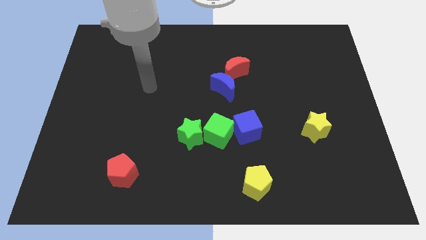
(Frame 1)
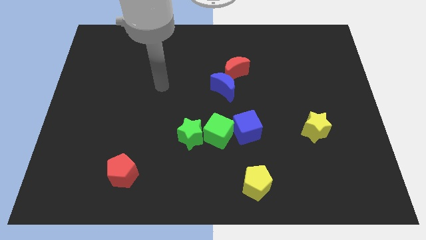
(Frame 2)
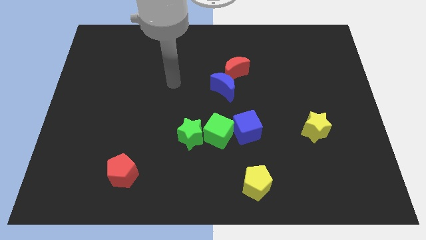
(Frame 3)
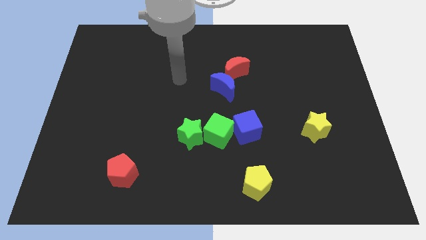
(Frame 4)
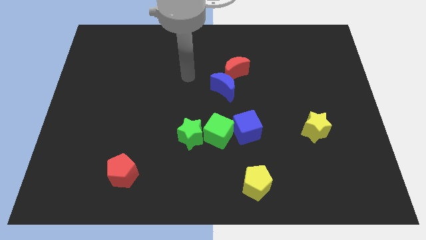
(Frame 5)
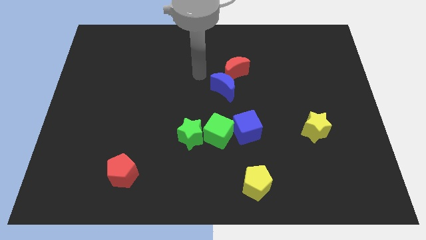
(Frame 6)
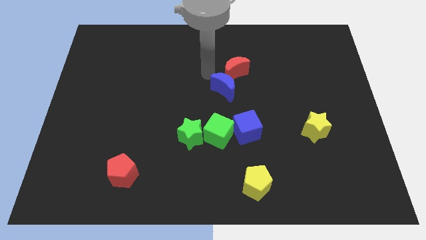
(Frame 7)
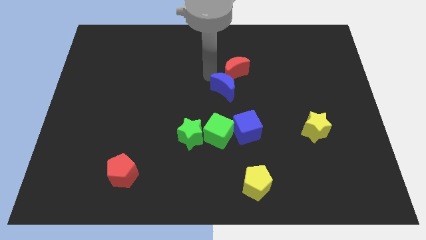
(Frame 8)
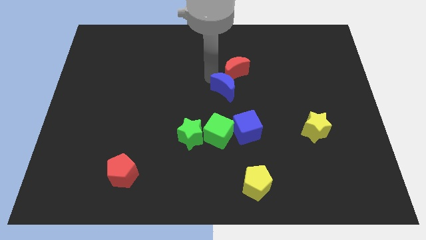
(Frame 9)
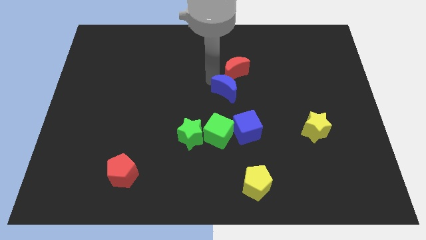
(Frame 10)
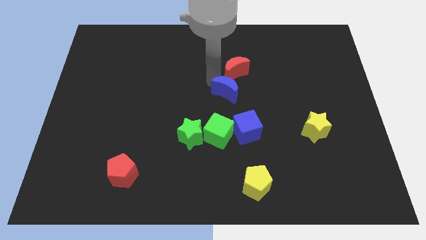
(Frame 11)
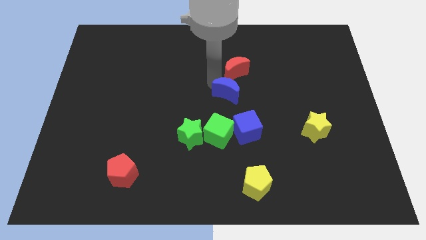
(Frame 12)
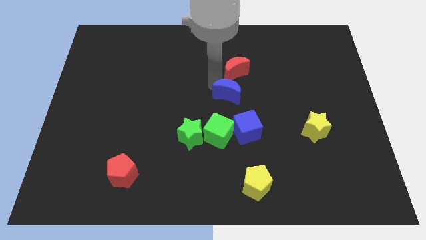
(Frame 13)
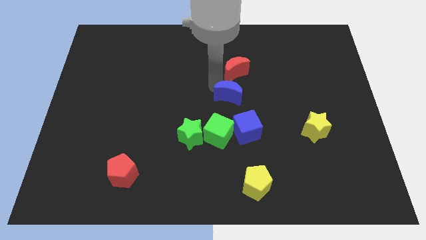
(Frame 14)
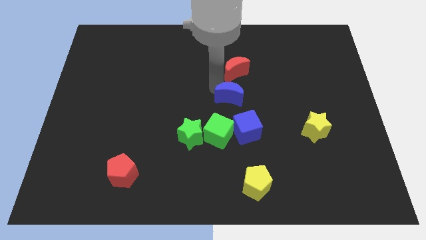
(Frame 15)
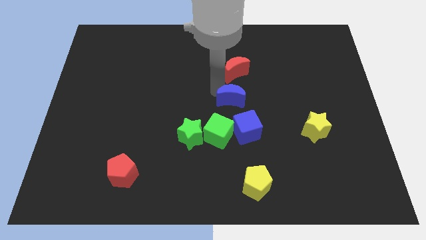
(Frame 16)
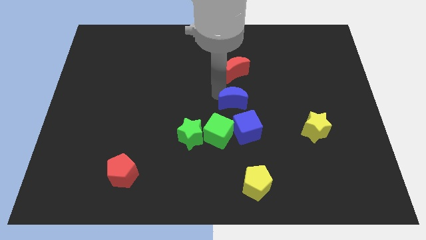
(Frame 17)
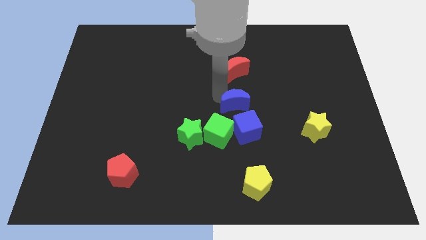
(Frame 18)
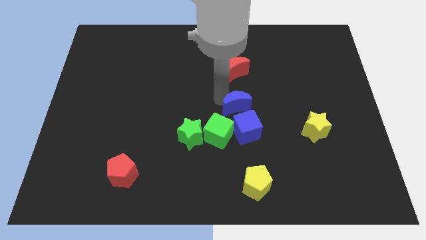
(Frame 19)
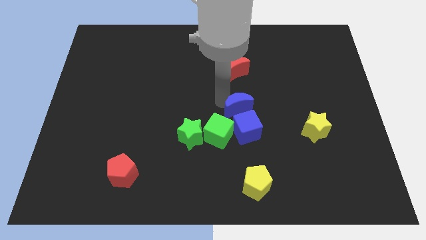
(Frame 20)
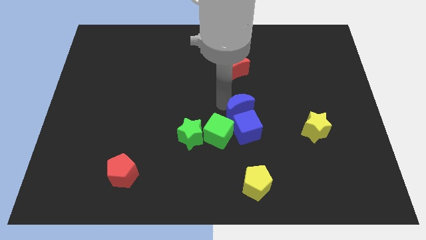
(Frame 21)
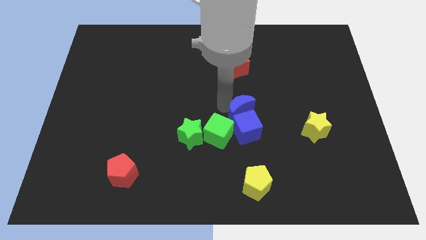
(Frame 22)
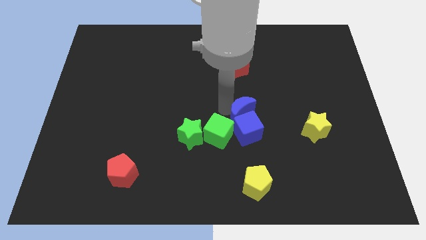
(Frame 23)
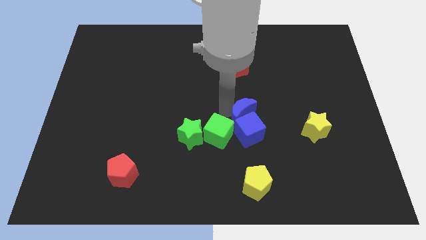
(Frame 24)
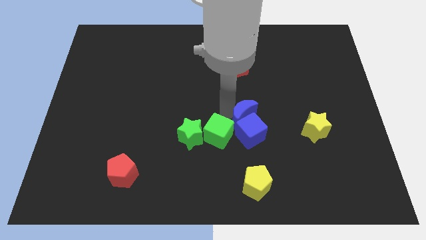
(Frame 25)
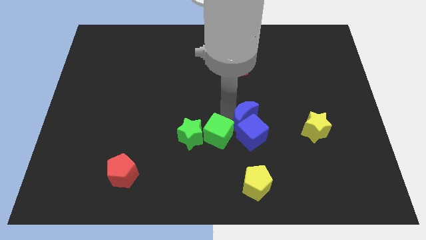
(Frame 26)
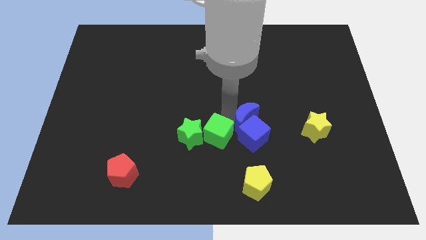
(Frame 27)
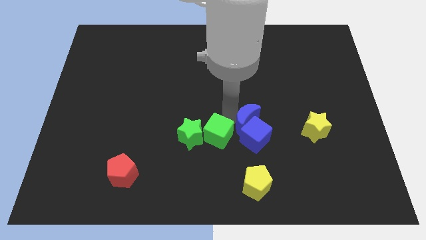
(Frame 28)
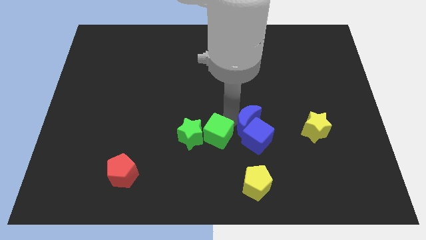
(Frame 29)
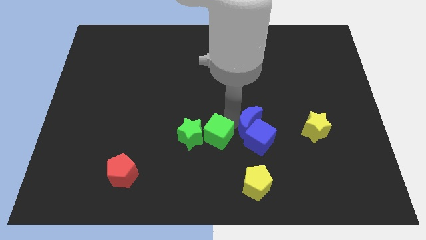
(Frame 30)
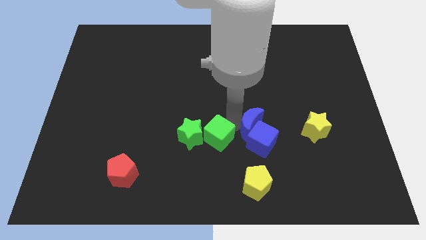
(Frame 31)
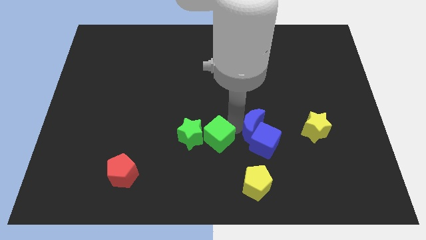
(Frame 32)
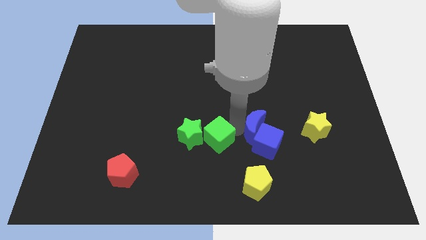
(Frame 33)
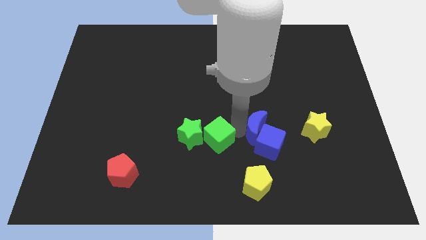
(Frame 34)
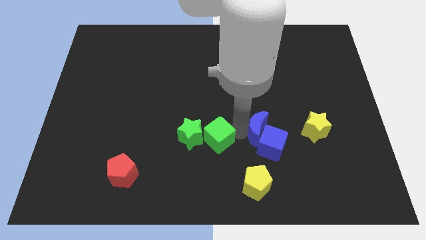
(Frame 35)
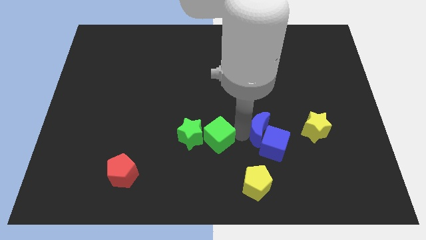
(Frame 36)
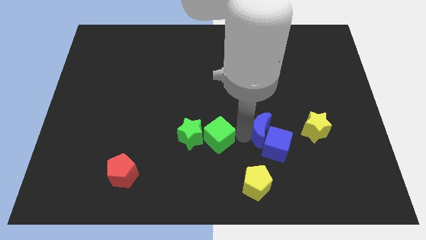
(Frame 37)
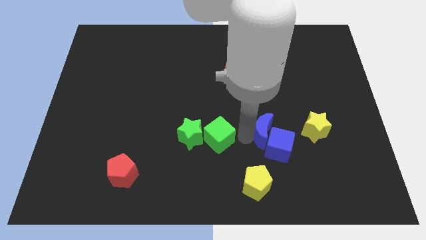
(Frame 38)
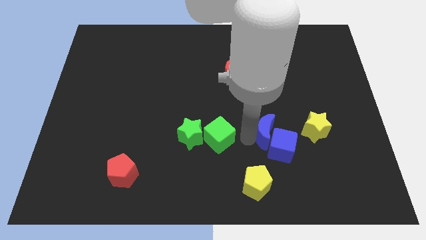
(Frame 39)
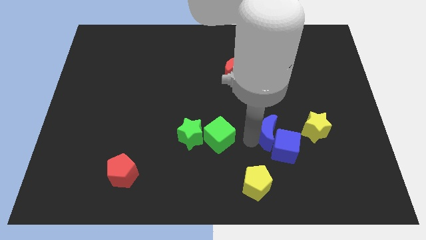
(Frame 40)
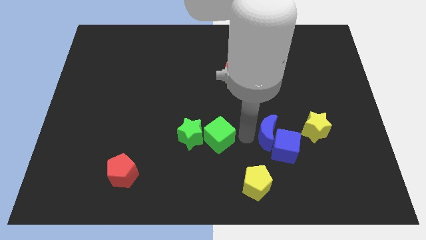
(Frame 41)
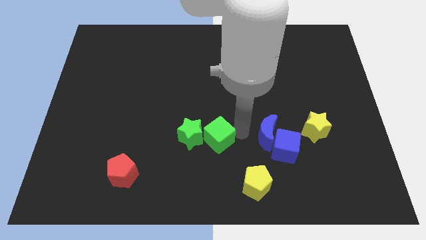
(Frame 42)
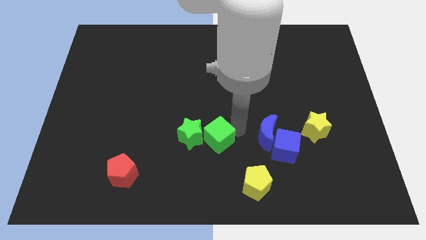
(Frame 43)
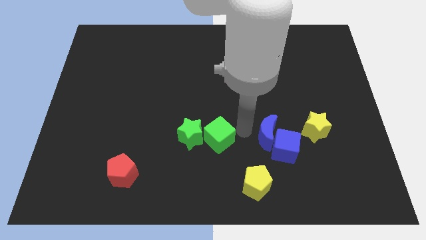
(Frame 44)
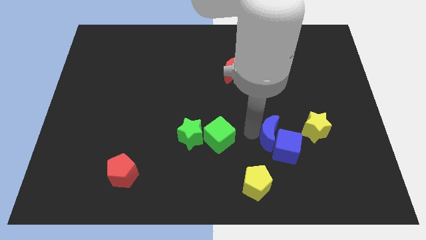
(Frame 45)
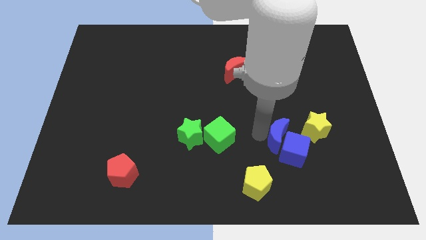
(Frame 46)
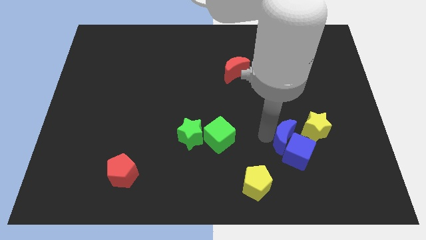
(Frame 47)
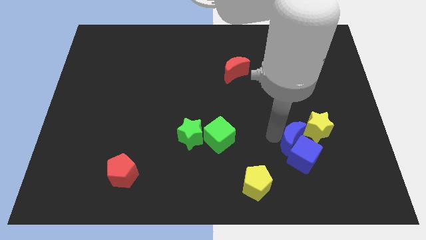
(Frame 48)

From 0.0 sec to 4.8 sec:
push the blue moon diagonally down and to the right

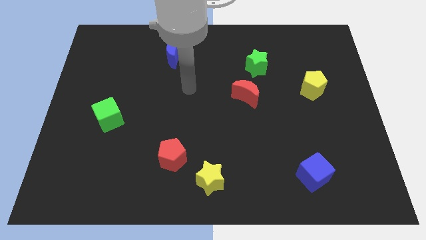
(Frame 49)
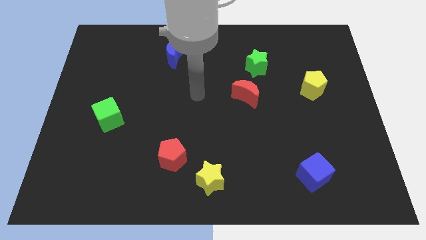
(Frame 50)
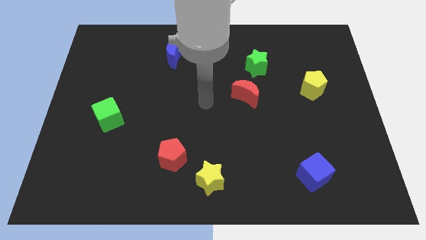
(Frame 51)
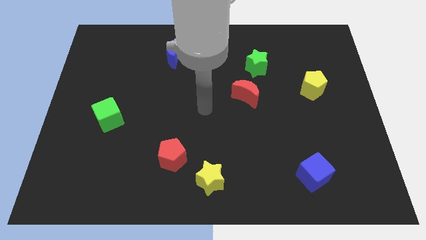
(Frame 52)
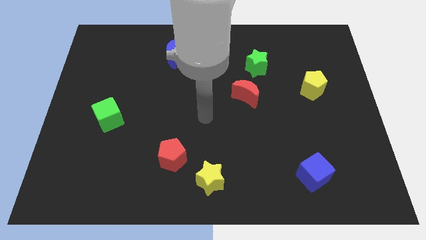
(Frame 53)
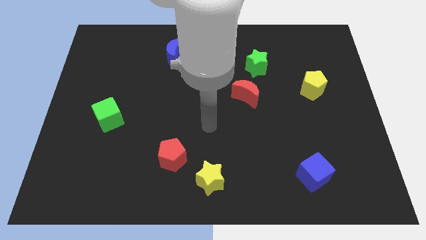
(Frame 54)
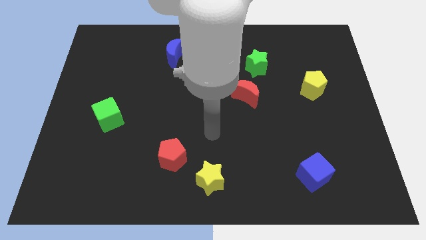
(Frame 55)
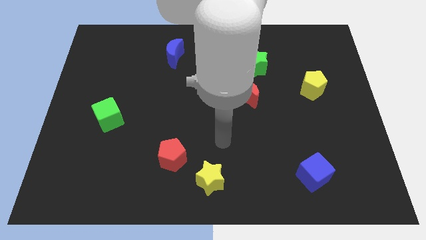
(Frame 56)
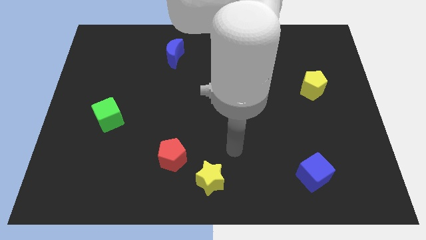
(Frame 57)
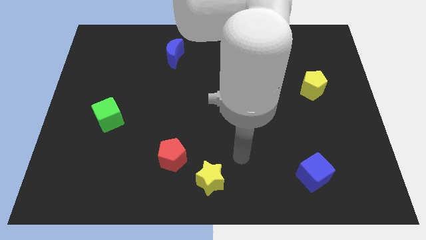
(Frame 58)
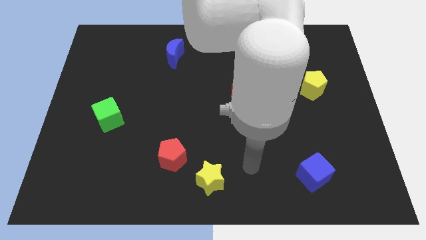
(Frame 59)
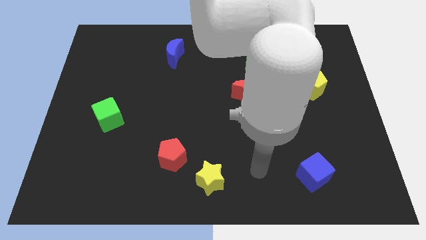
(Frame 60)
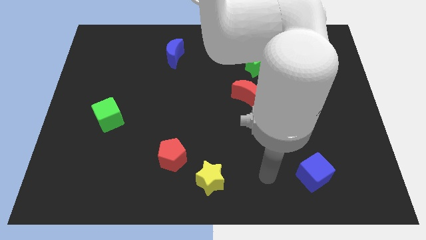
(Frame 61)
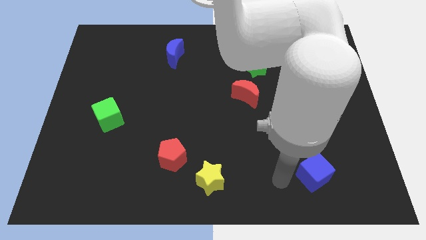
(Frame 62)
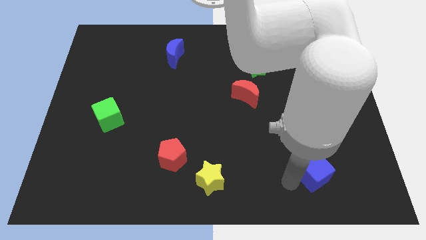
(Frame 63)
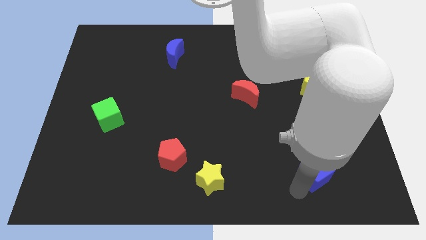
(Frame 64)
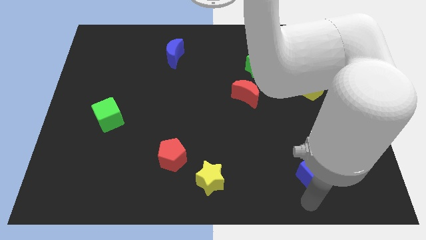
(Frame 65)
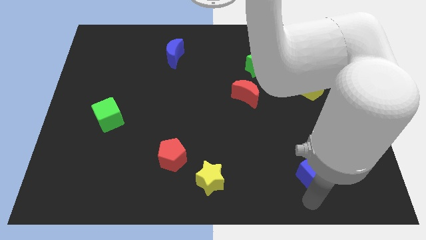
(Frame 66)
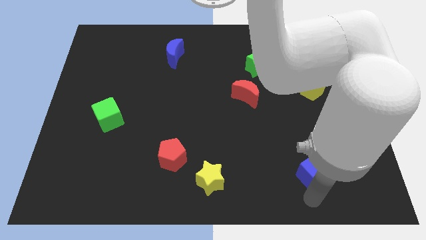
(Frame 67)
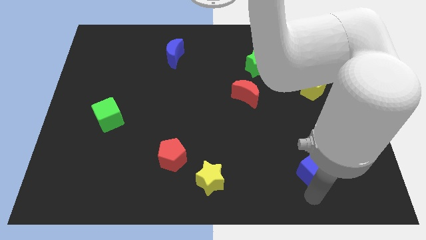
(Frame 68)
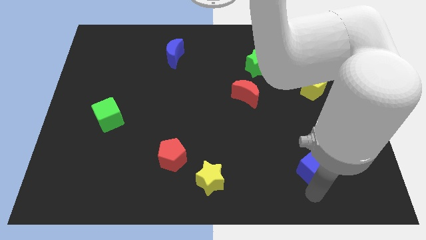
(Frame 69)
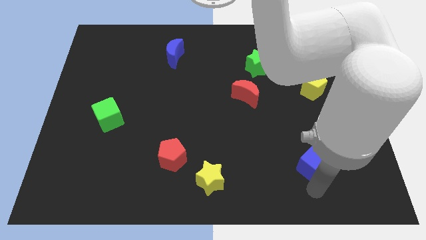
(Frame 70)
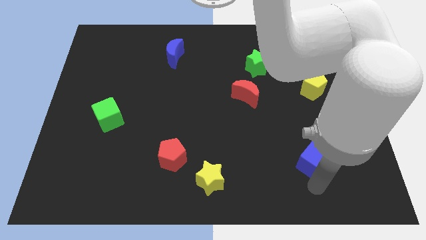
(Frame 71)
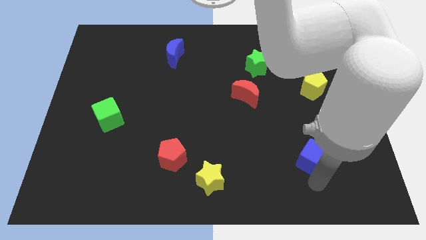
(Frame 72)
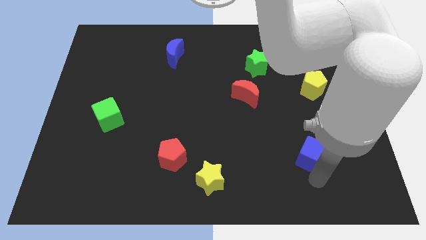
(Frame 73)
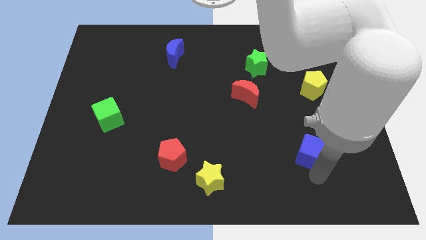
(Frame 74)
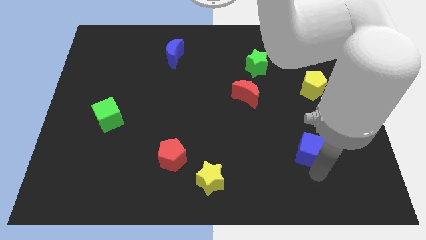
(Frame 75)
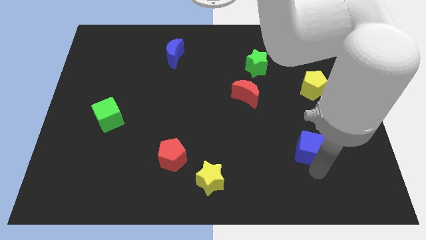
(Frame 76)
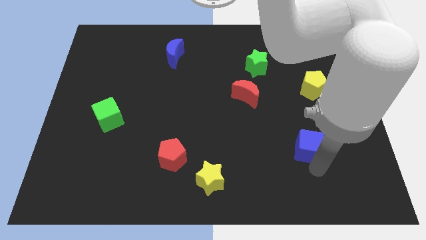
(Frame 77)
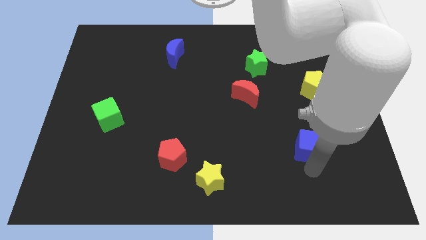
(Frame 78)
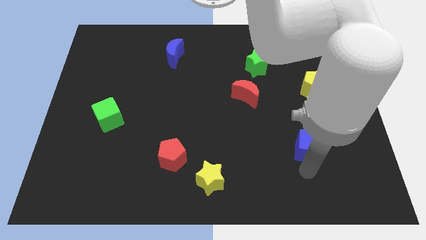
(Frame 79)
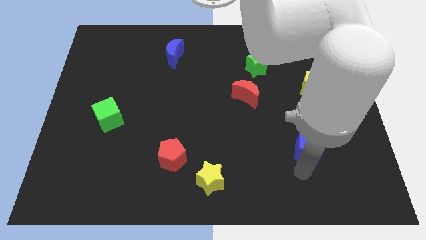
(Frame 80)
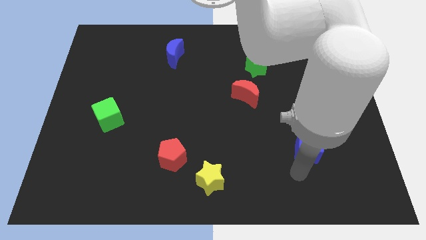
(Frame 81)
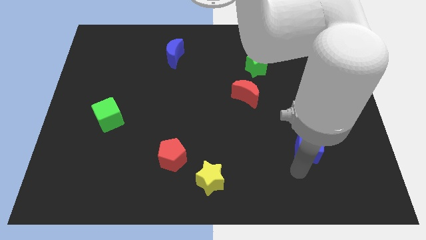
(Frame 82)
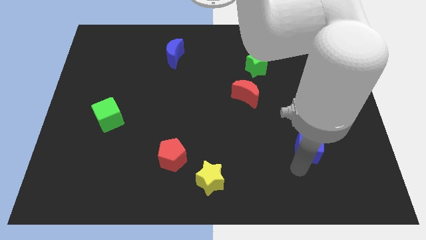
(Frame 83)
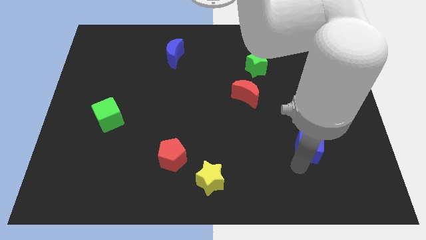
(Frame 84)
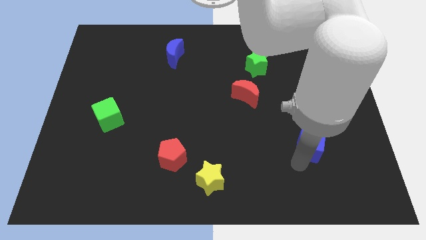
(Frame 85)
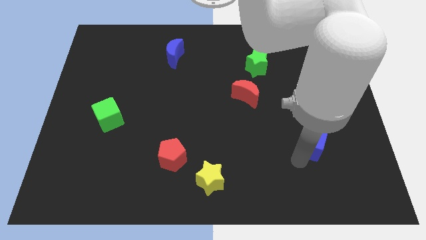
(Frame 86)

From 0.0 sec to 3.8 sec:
move the blue cube upwards a little
